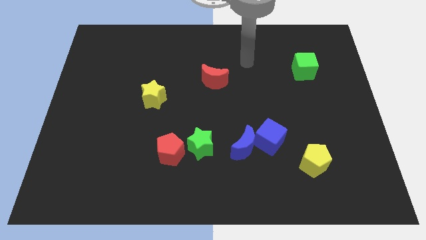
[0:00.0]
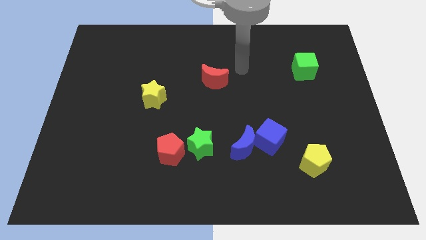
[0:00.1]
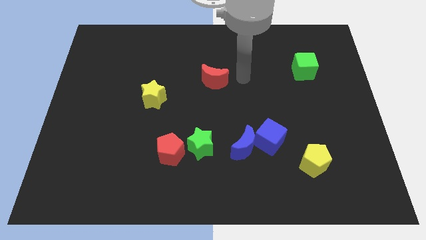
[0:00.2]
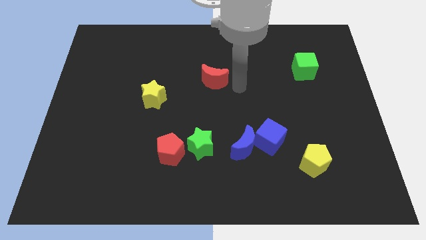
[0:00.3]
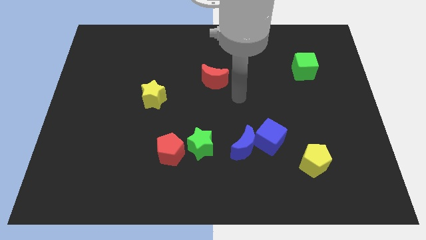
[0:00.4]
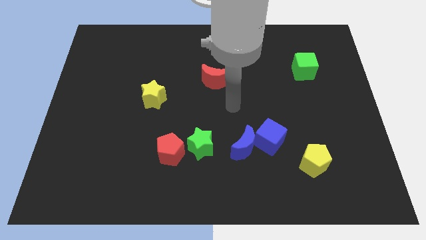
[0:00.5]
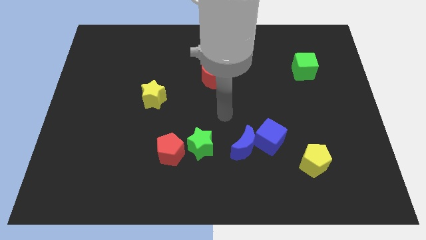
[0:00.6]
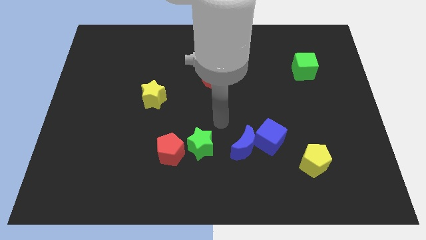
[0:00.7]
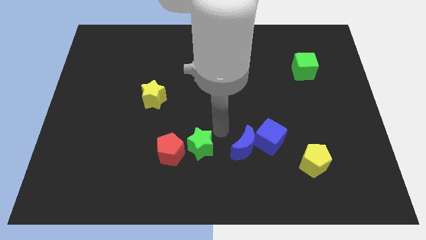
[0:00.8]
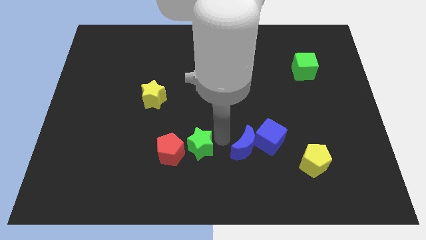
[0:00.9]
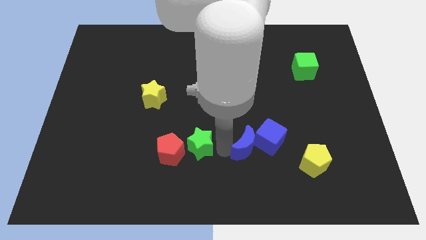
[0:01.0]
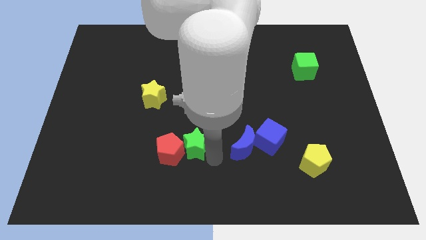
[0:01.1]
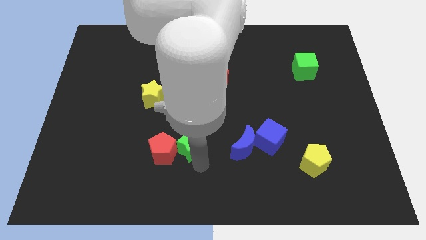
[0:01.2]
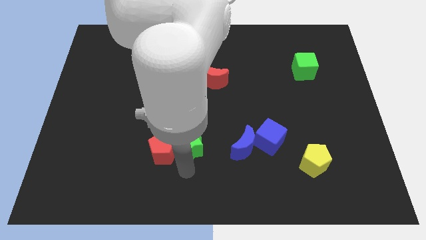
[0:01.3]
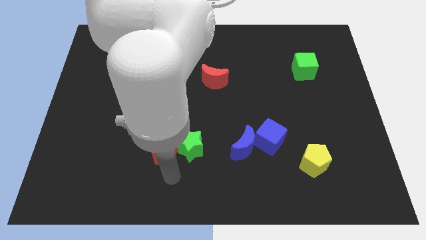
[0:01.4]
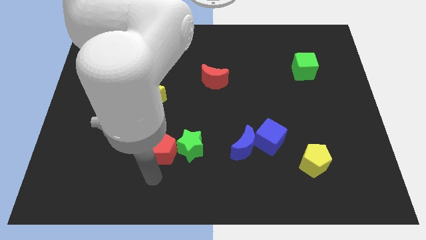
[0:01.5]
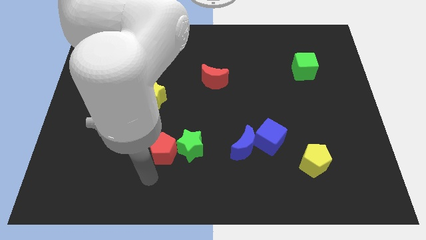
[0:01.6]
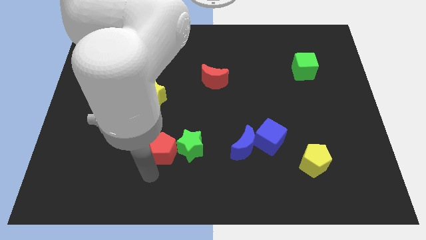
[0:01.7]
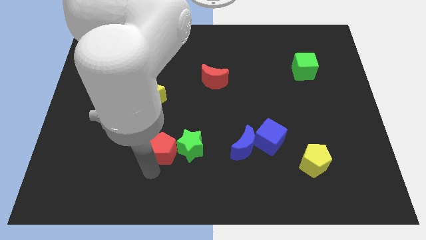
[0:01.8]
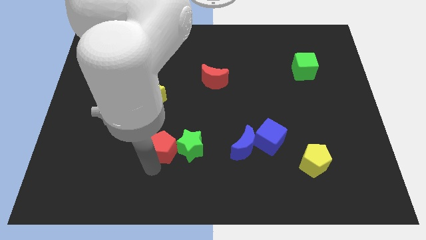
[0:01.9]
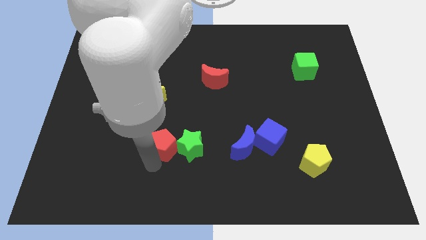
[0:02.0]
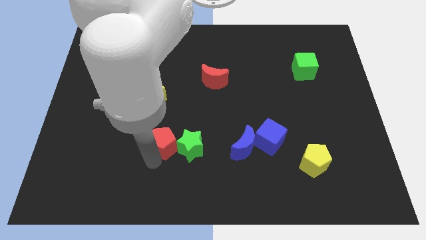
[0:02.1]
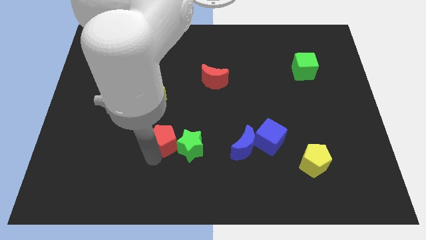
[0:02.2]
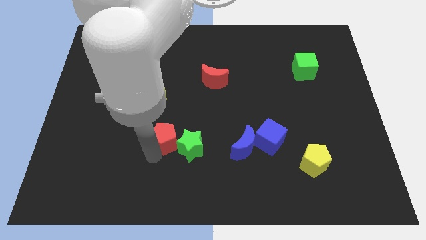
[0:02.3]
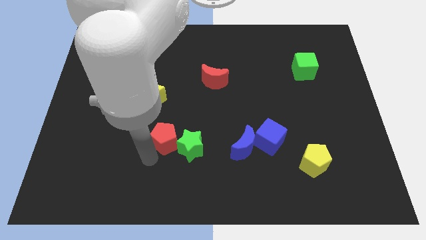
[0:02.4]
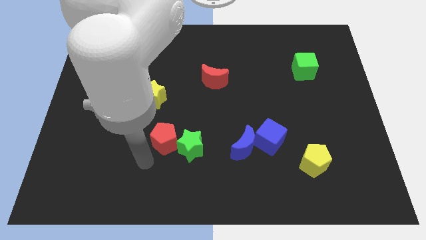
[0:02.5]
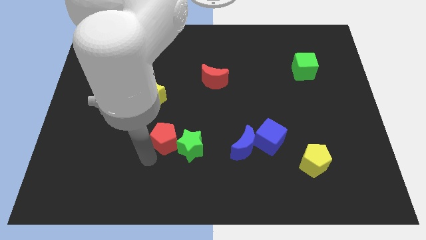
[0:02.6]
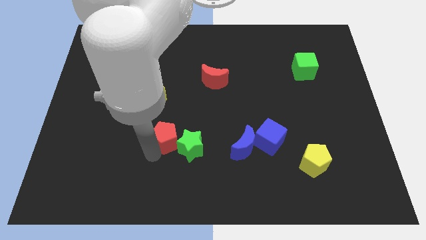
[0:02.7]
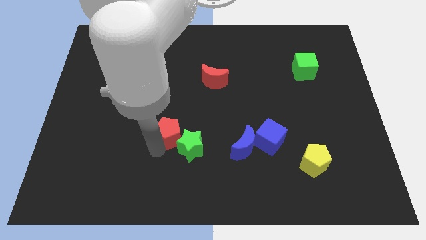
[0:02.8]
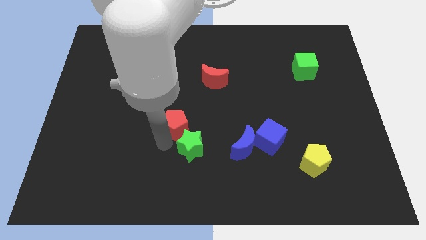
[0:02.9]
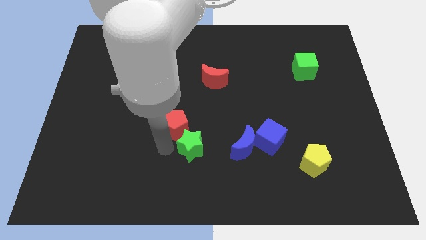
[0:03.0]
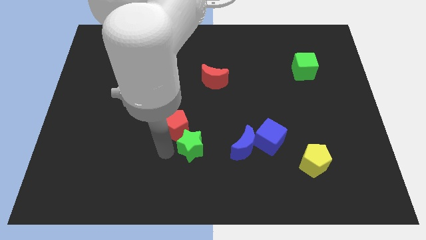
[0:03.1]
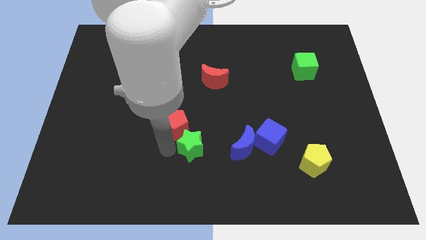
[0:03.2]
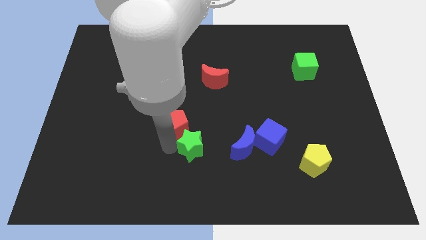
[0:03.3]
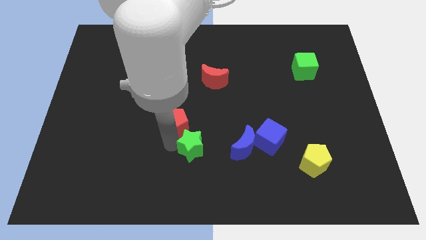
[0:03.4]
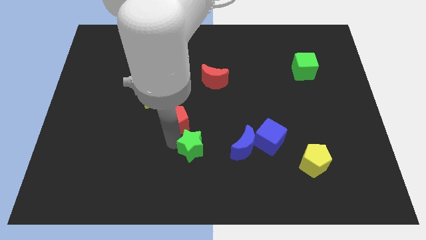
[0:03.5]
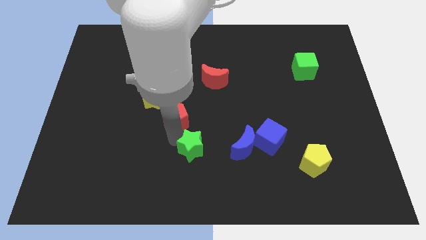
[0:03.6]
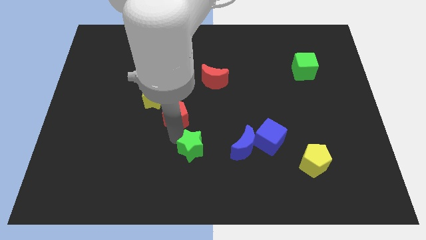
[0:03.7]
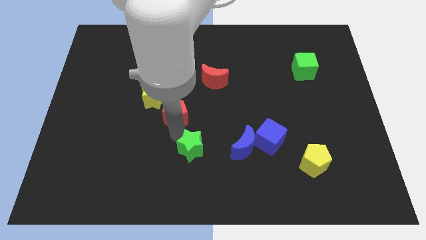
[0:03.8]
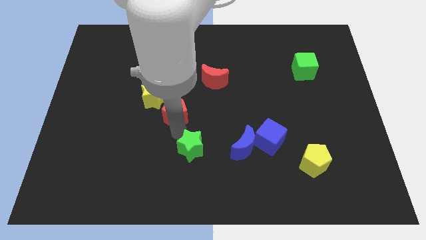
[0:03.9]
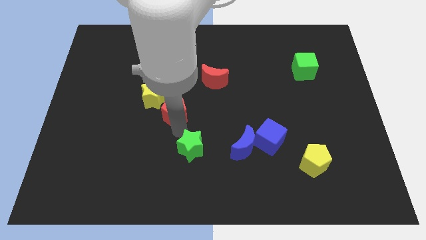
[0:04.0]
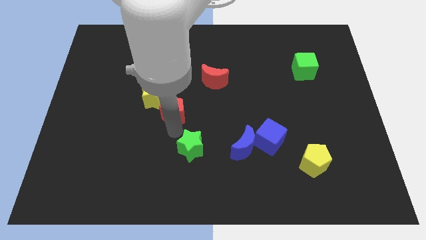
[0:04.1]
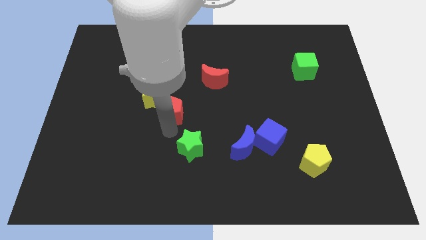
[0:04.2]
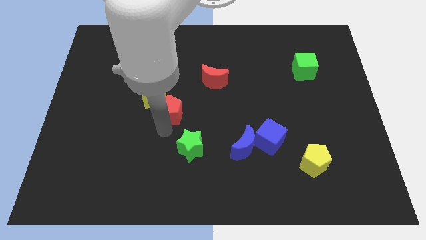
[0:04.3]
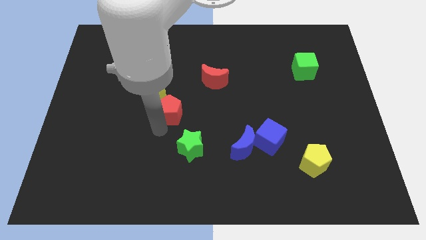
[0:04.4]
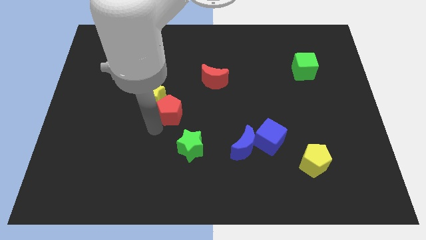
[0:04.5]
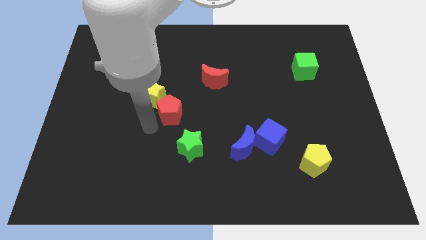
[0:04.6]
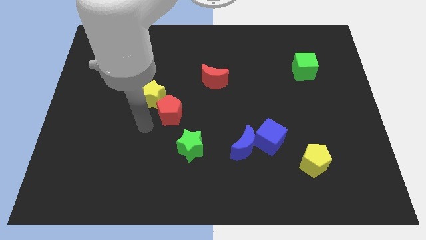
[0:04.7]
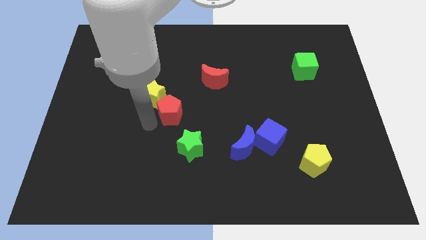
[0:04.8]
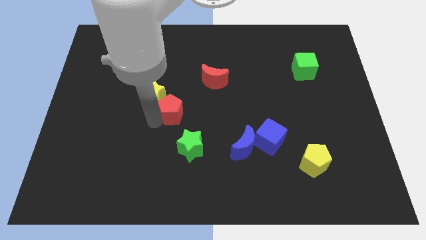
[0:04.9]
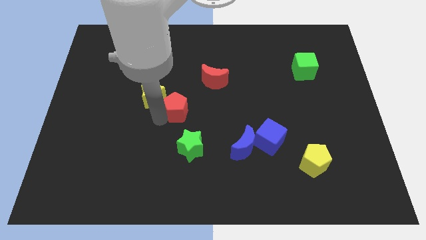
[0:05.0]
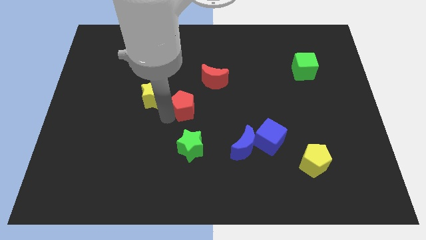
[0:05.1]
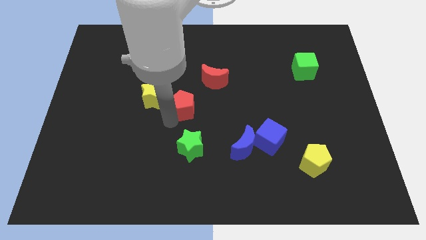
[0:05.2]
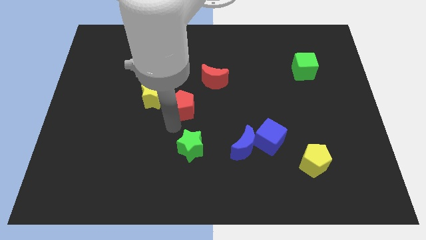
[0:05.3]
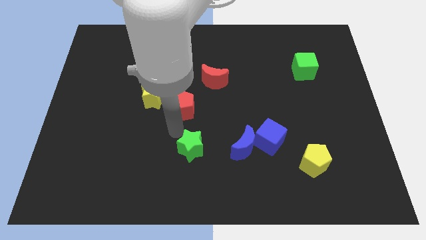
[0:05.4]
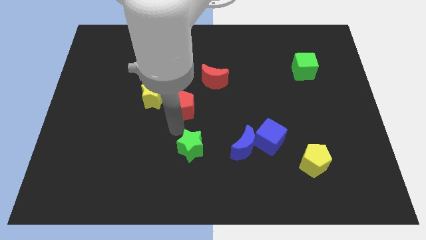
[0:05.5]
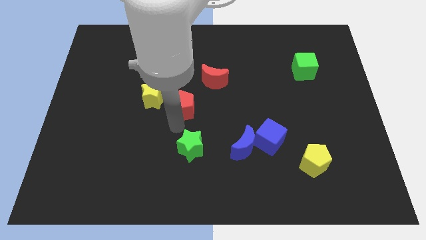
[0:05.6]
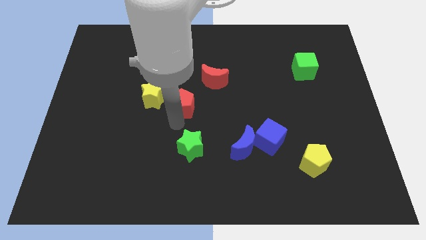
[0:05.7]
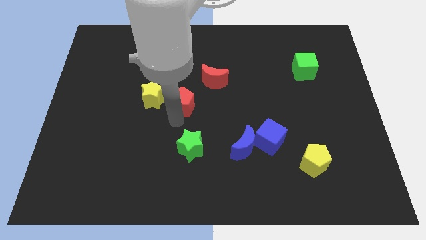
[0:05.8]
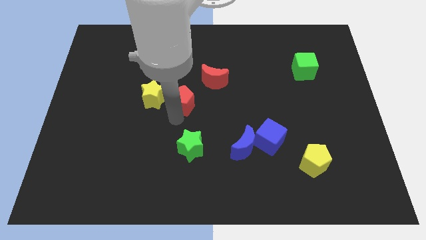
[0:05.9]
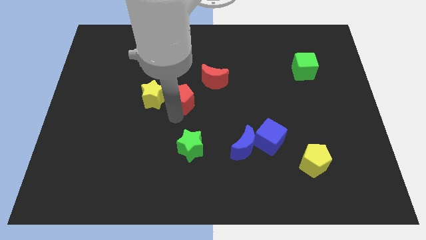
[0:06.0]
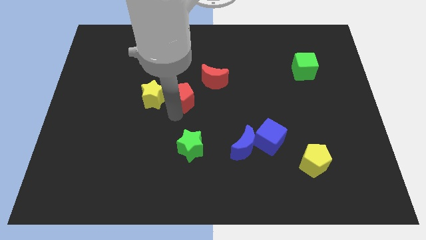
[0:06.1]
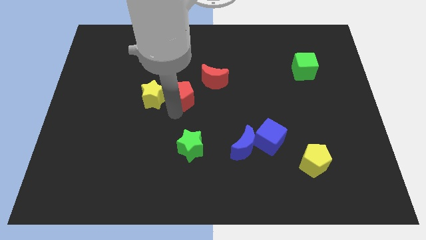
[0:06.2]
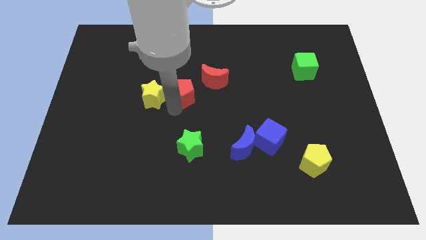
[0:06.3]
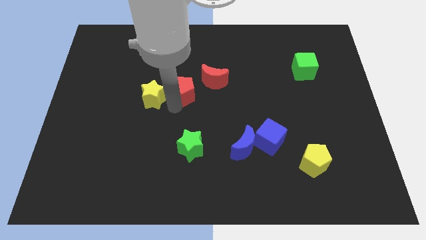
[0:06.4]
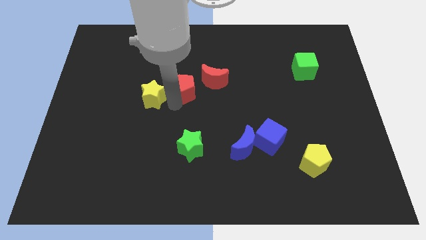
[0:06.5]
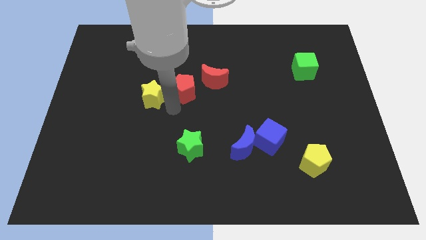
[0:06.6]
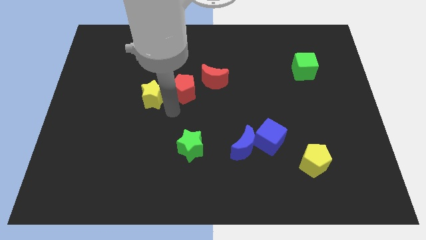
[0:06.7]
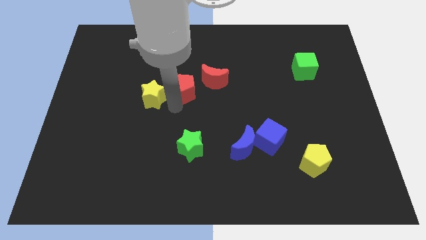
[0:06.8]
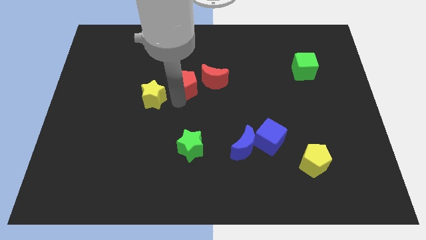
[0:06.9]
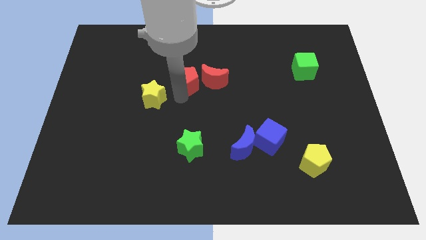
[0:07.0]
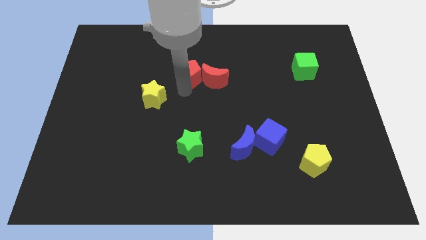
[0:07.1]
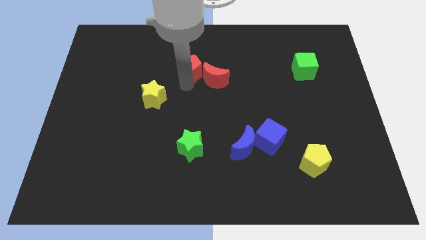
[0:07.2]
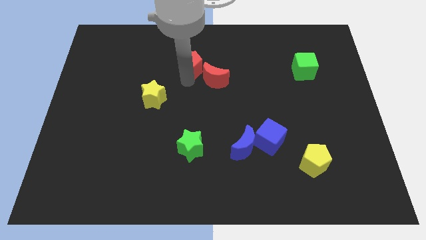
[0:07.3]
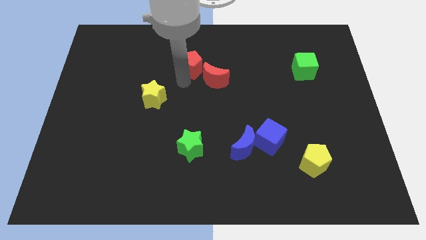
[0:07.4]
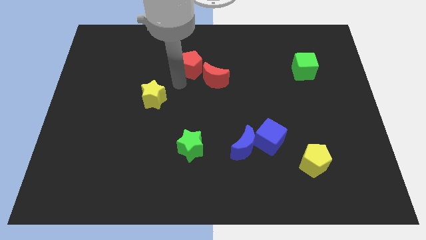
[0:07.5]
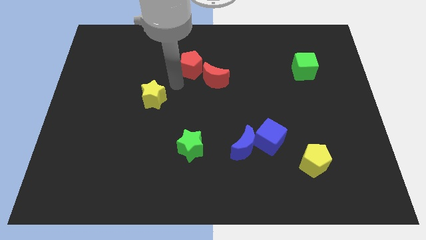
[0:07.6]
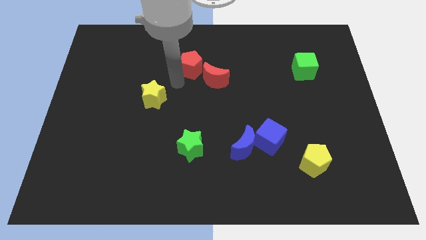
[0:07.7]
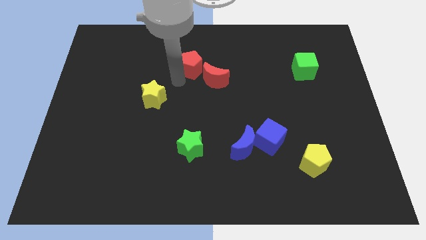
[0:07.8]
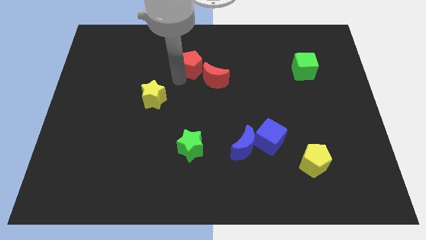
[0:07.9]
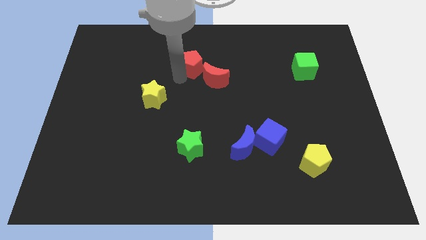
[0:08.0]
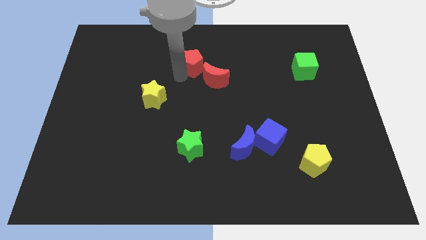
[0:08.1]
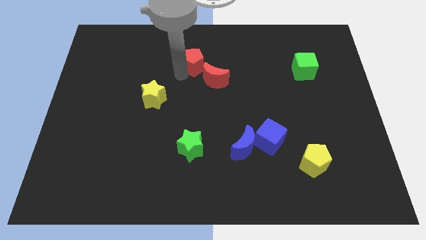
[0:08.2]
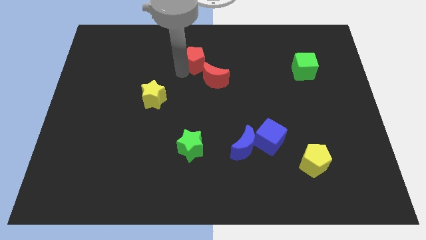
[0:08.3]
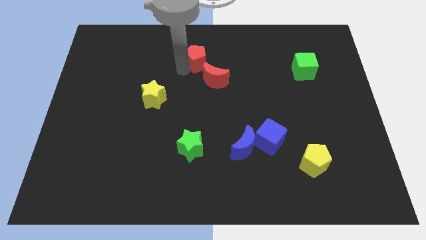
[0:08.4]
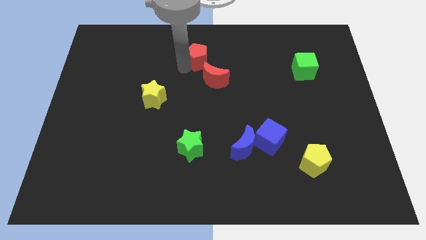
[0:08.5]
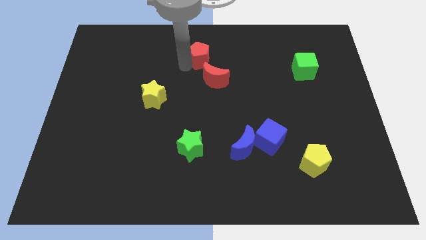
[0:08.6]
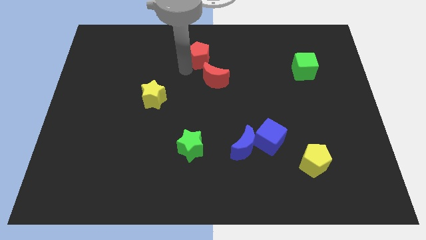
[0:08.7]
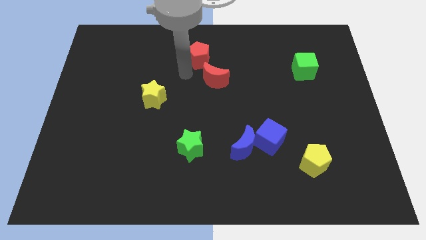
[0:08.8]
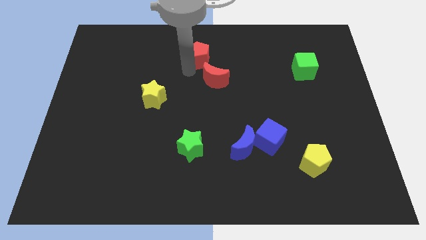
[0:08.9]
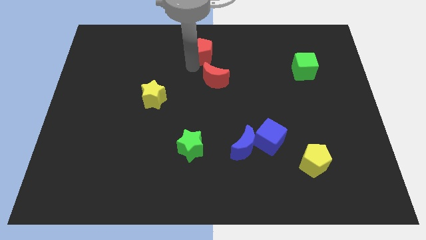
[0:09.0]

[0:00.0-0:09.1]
push the red pentagon to the towards your base
